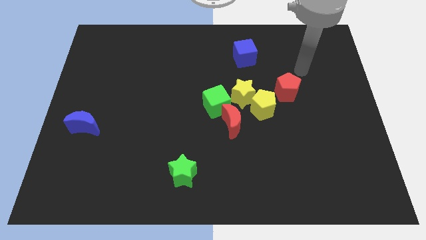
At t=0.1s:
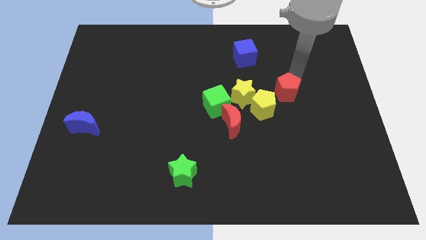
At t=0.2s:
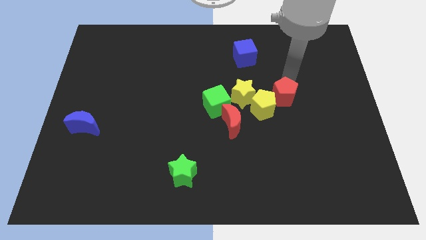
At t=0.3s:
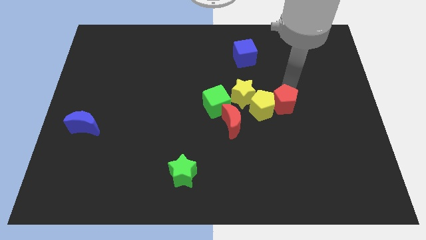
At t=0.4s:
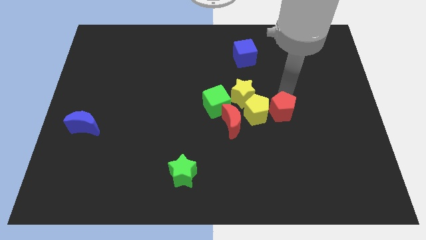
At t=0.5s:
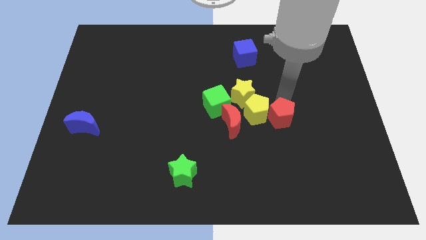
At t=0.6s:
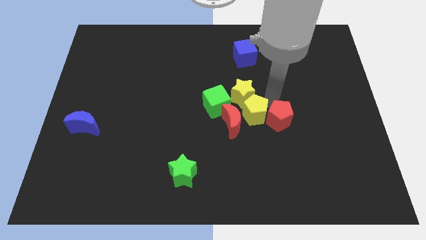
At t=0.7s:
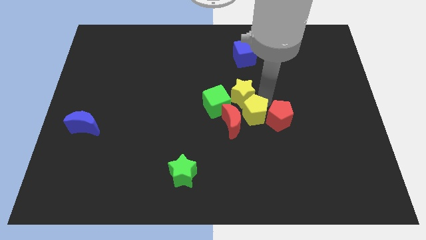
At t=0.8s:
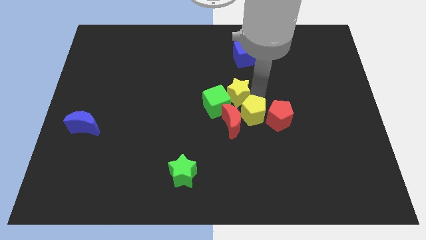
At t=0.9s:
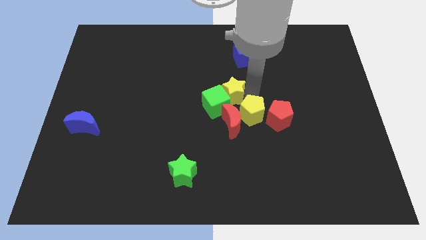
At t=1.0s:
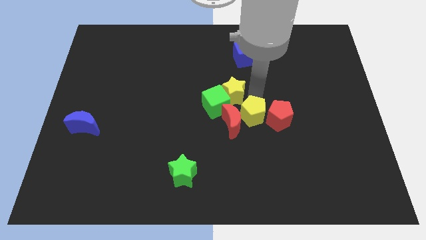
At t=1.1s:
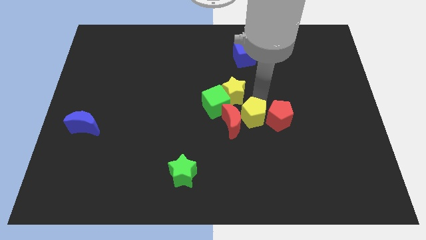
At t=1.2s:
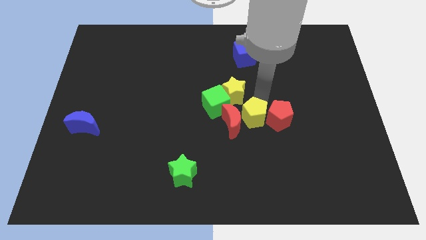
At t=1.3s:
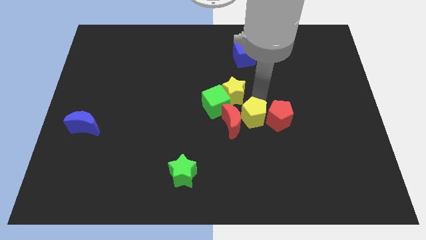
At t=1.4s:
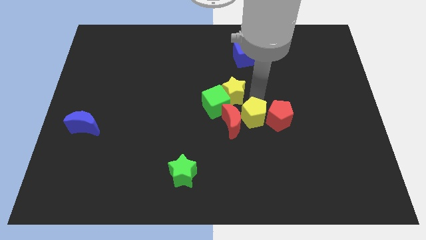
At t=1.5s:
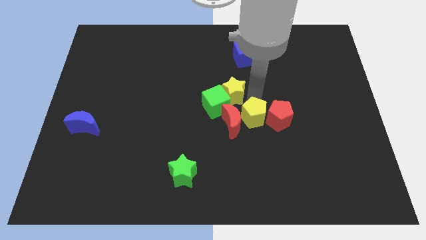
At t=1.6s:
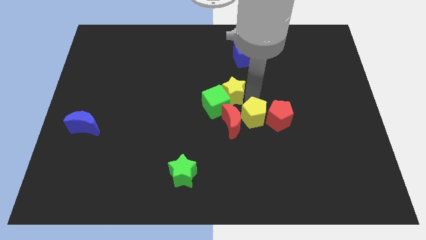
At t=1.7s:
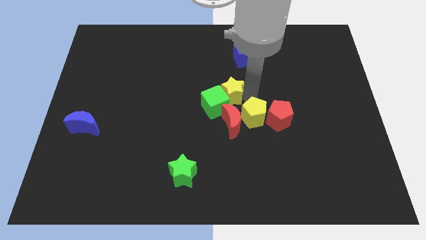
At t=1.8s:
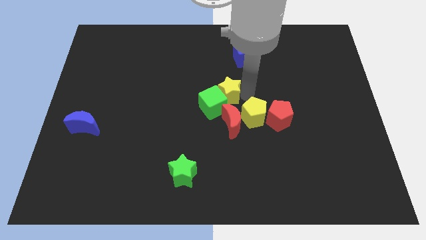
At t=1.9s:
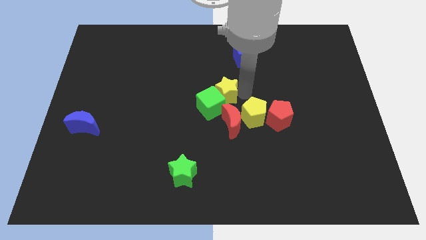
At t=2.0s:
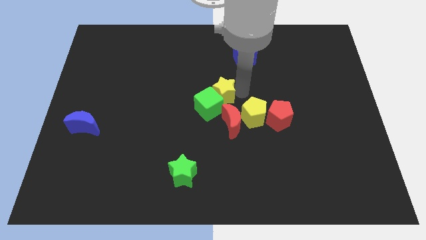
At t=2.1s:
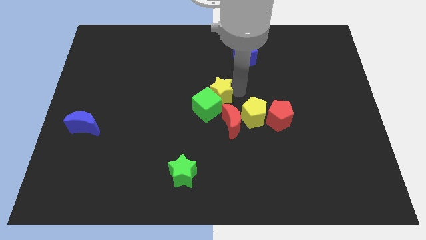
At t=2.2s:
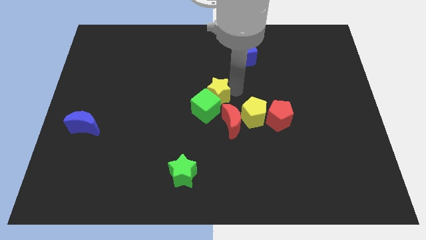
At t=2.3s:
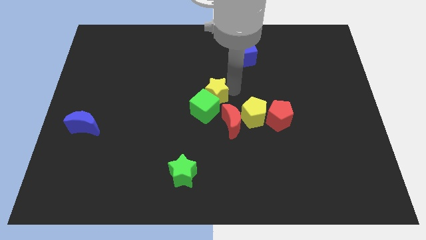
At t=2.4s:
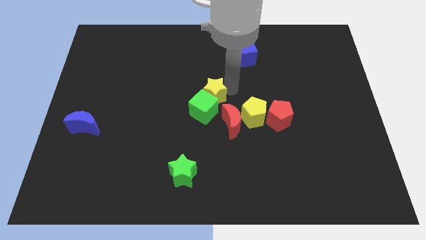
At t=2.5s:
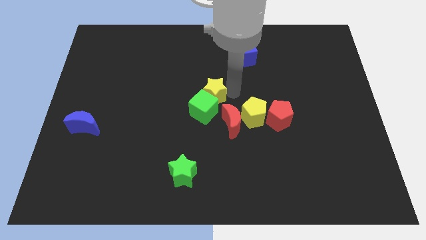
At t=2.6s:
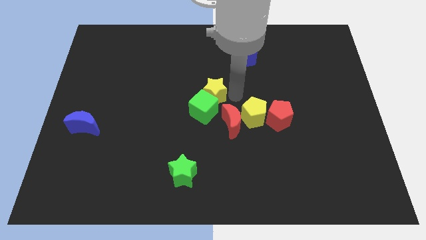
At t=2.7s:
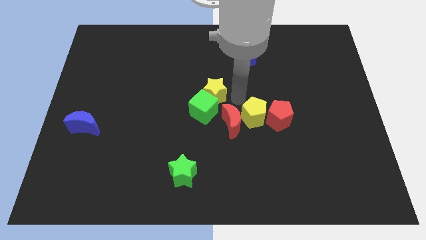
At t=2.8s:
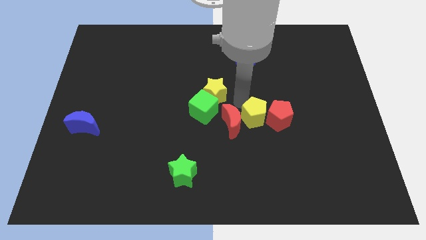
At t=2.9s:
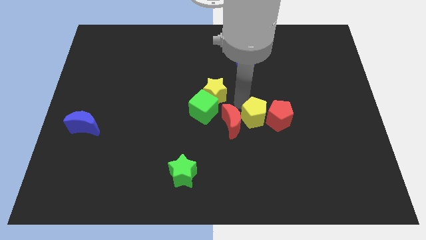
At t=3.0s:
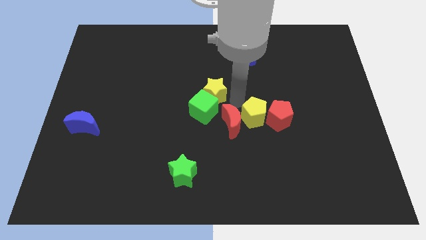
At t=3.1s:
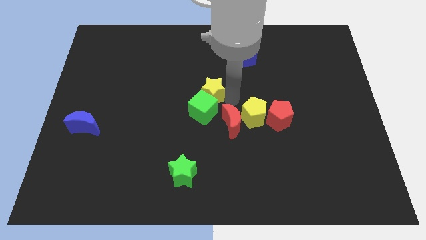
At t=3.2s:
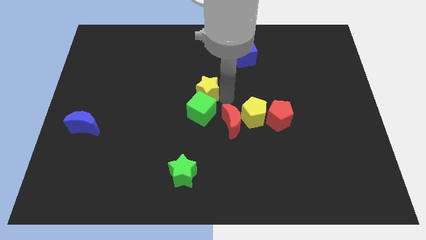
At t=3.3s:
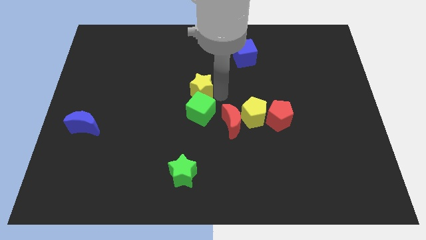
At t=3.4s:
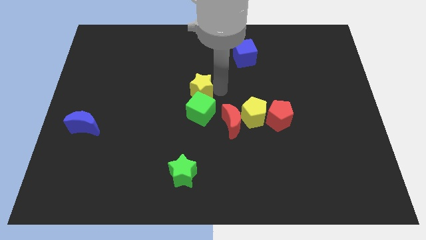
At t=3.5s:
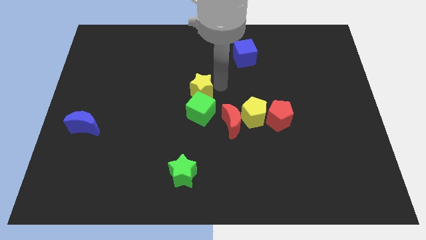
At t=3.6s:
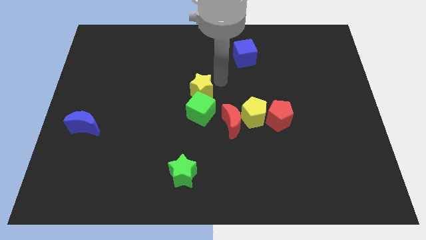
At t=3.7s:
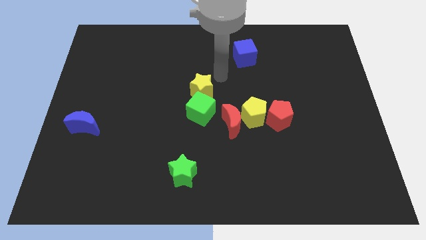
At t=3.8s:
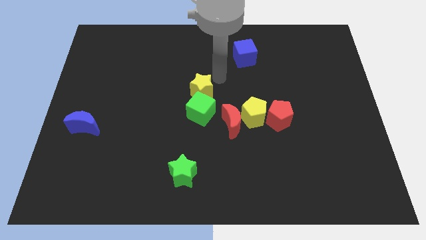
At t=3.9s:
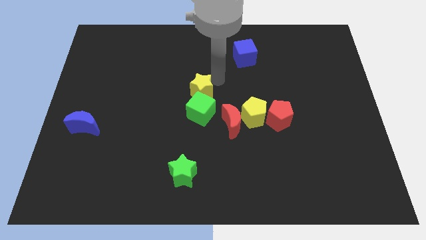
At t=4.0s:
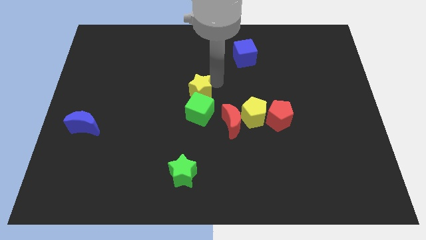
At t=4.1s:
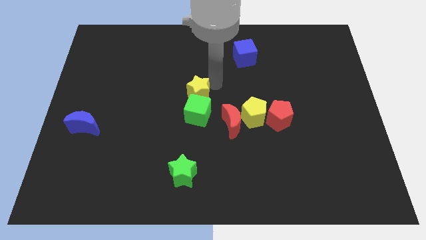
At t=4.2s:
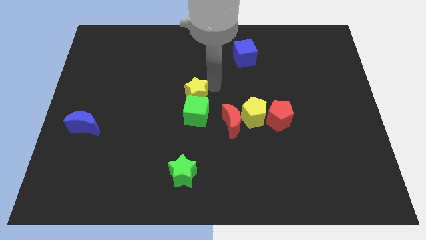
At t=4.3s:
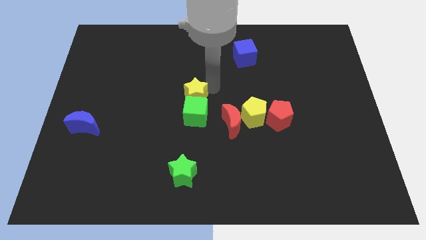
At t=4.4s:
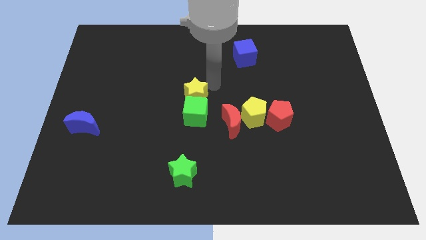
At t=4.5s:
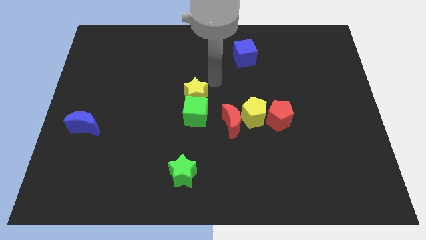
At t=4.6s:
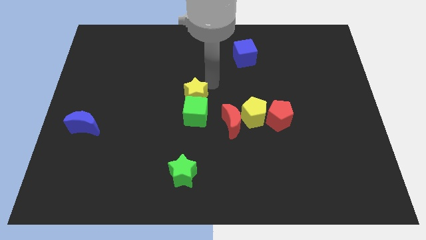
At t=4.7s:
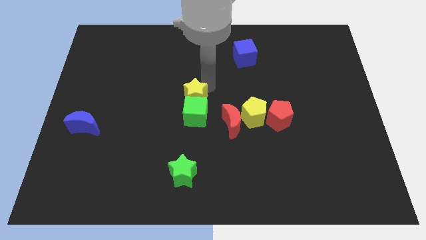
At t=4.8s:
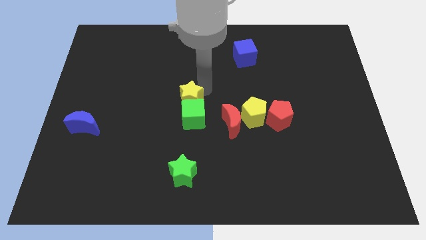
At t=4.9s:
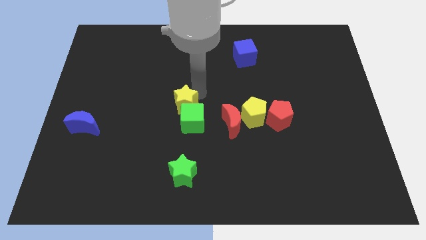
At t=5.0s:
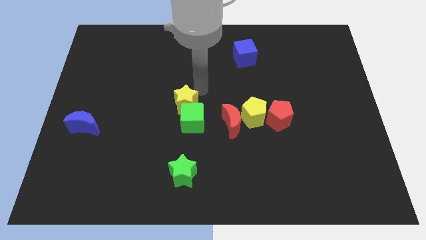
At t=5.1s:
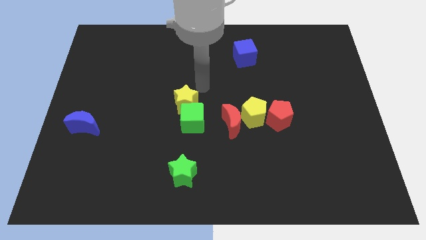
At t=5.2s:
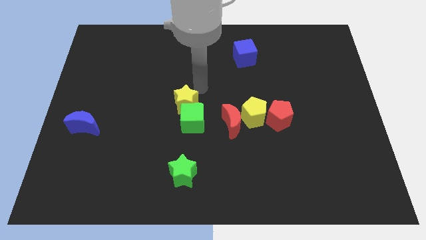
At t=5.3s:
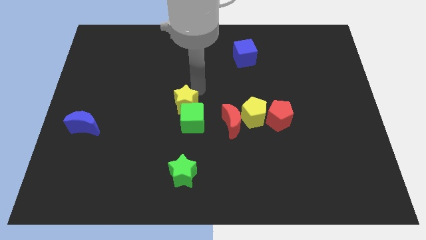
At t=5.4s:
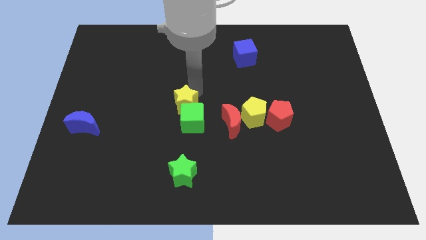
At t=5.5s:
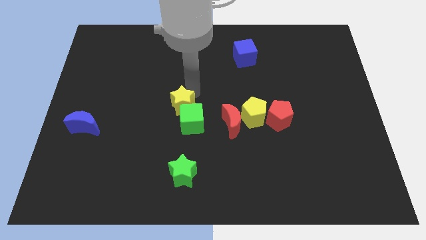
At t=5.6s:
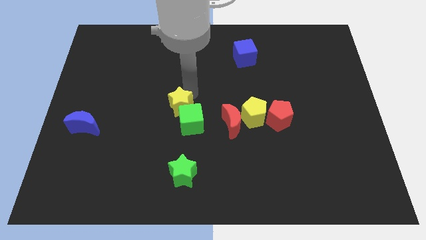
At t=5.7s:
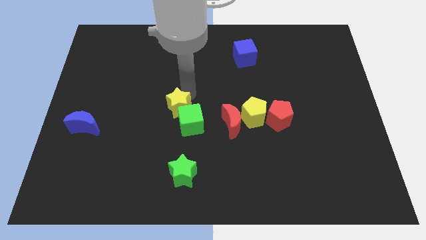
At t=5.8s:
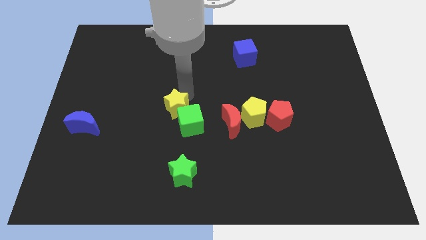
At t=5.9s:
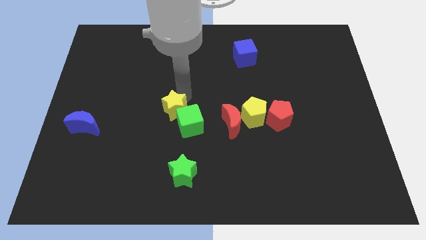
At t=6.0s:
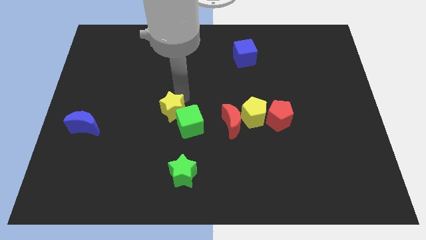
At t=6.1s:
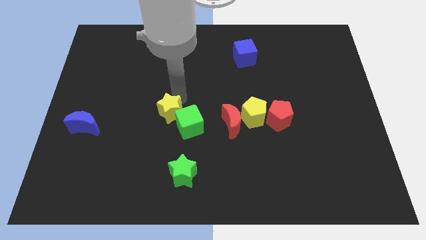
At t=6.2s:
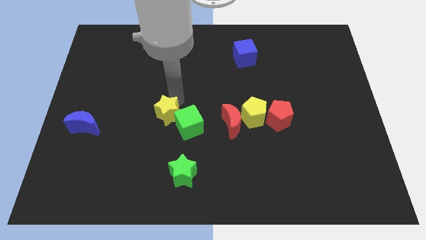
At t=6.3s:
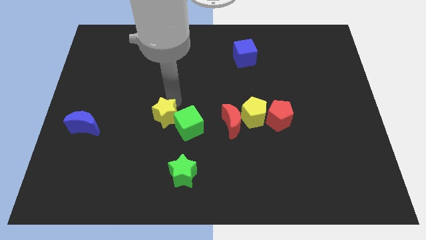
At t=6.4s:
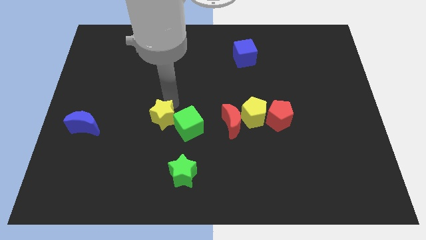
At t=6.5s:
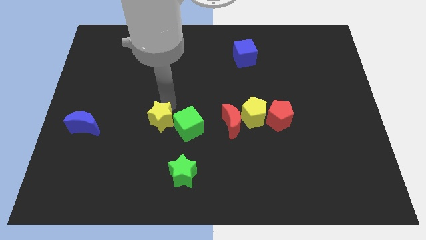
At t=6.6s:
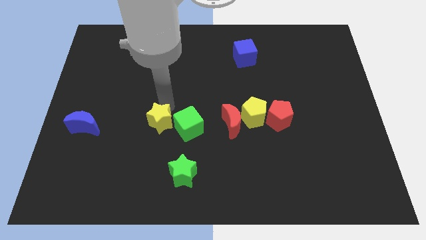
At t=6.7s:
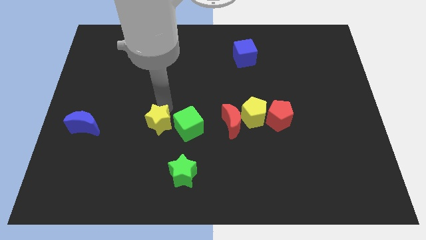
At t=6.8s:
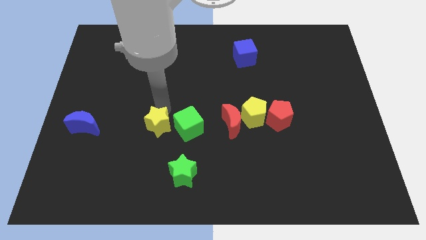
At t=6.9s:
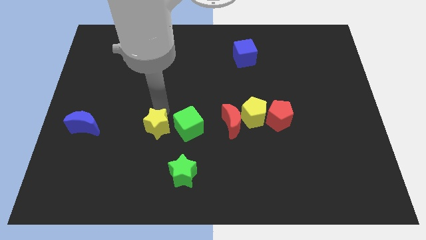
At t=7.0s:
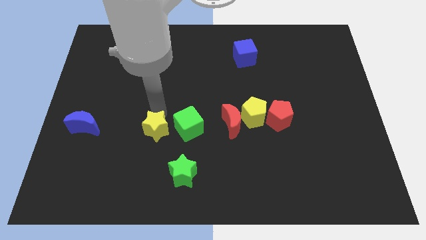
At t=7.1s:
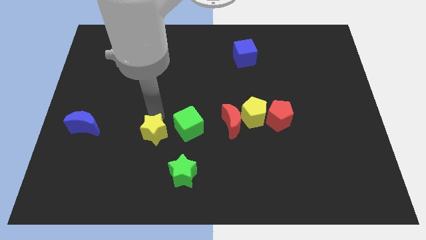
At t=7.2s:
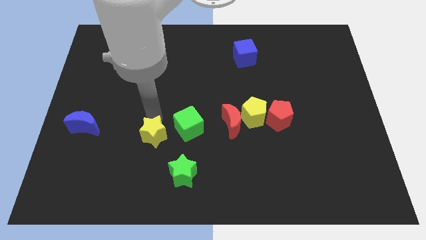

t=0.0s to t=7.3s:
move the yellow star down and to the left diagonally

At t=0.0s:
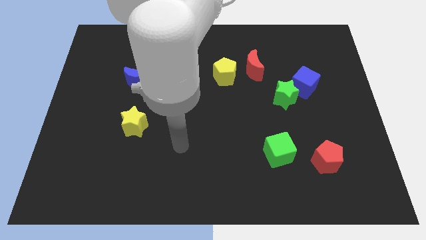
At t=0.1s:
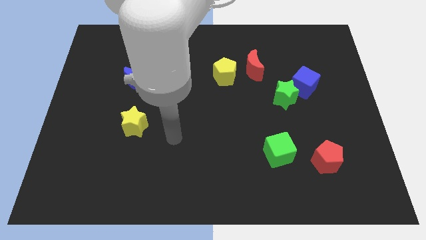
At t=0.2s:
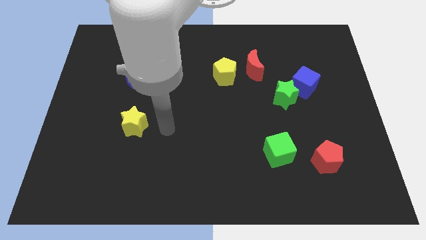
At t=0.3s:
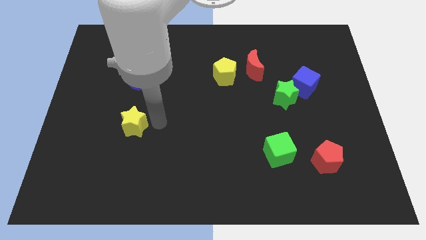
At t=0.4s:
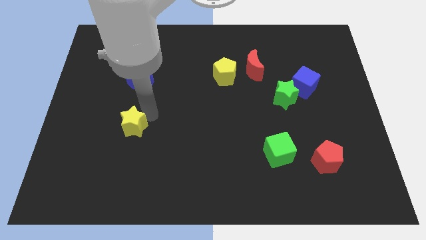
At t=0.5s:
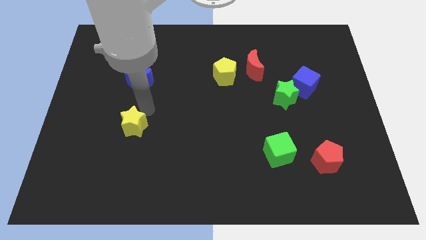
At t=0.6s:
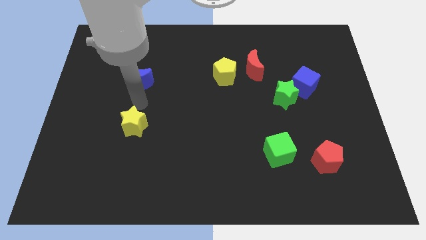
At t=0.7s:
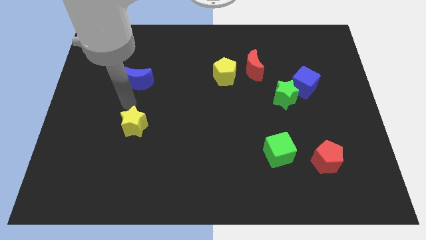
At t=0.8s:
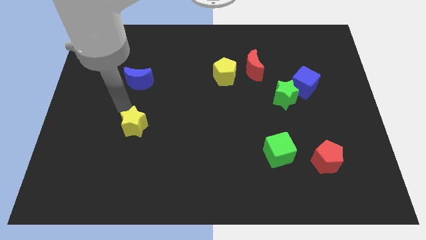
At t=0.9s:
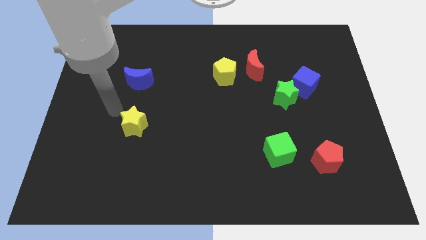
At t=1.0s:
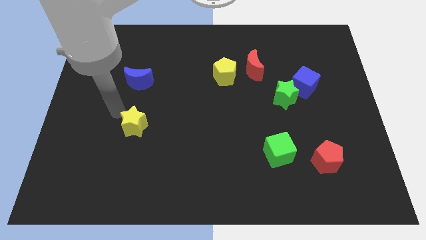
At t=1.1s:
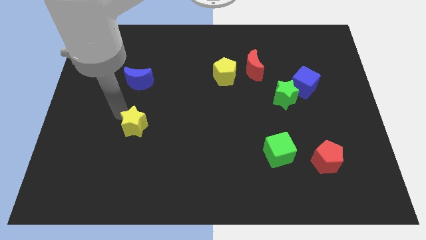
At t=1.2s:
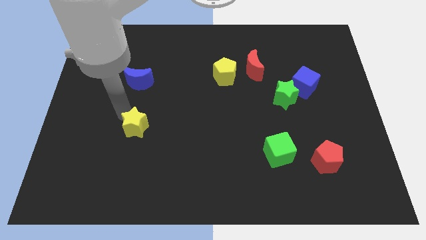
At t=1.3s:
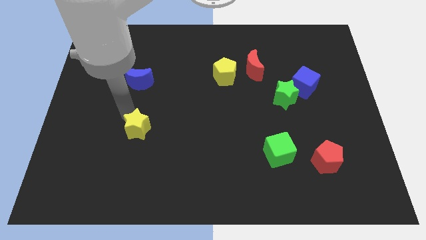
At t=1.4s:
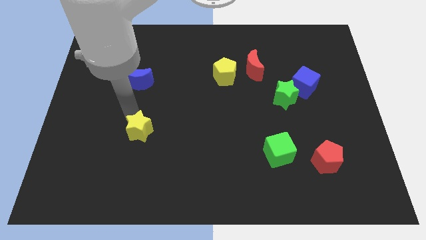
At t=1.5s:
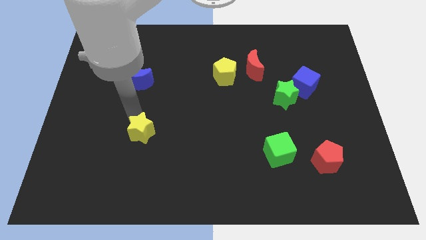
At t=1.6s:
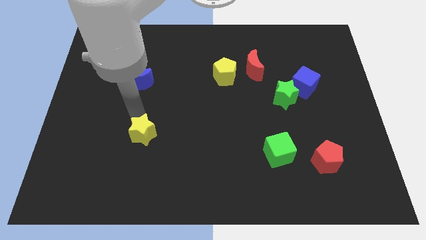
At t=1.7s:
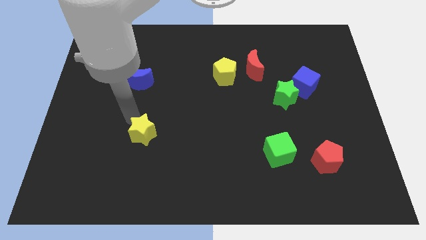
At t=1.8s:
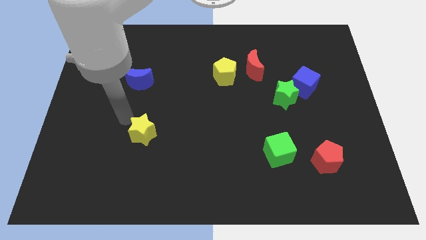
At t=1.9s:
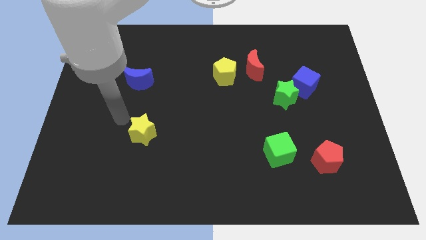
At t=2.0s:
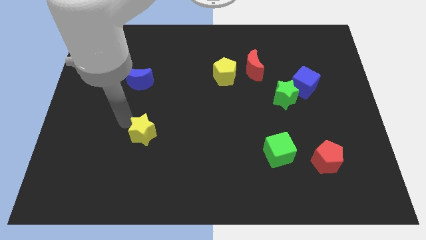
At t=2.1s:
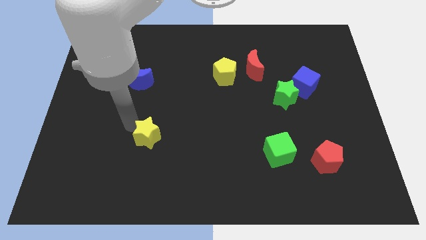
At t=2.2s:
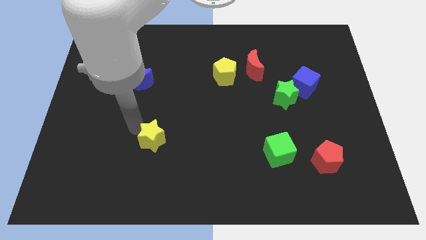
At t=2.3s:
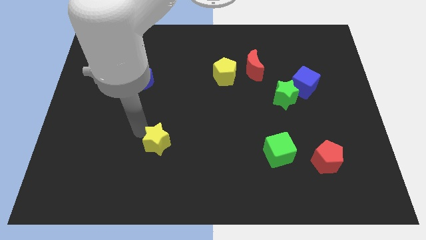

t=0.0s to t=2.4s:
slightly move the yellow star down and to the right
